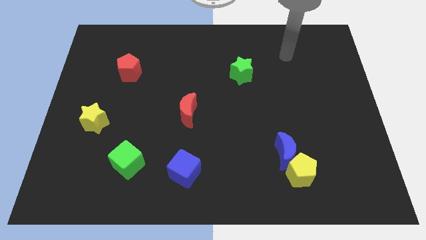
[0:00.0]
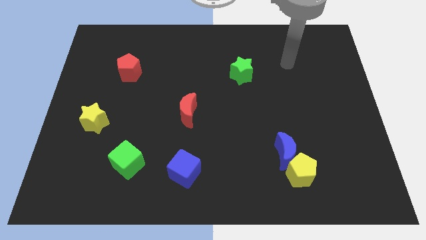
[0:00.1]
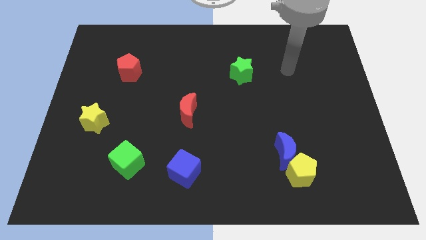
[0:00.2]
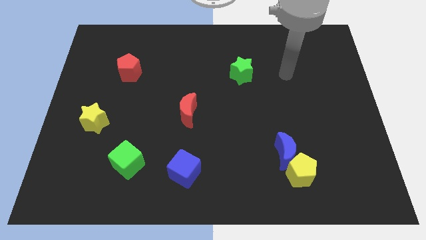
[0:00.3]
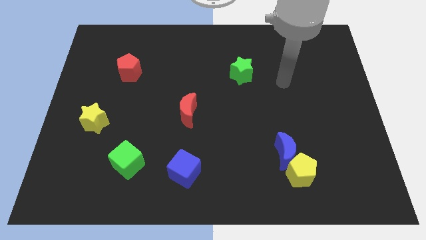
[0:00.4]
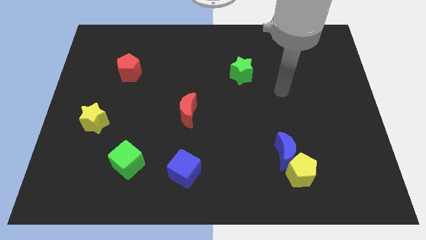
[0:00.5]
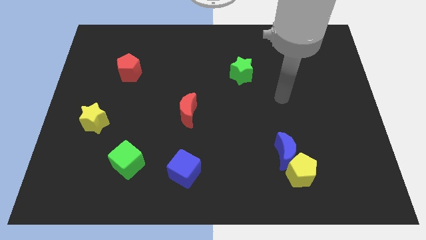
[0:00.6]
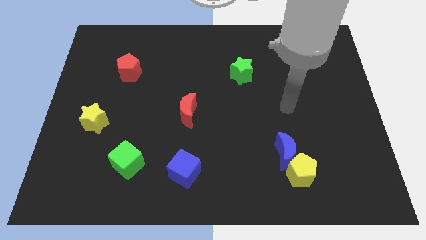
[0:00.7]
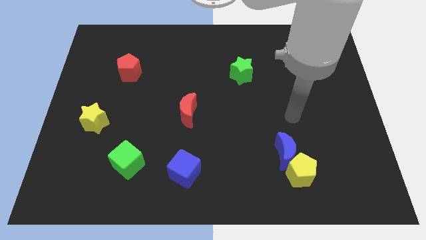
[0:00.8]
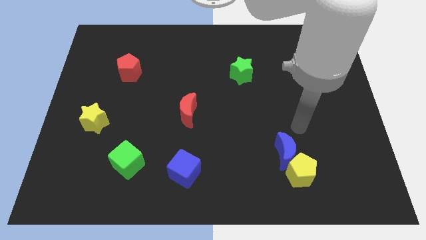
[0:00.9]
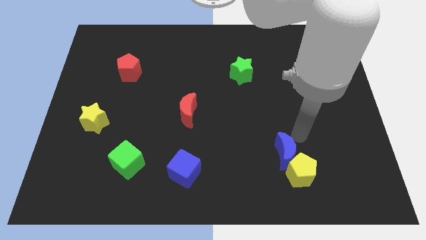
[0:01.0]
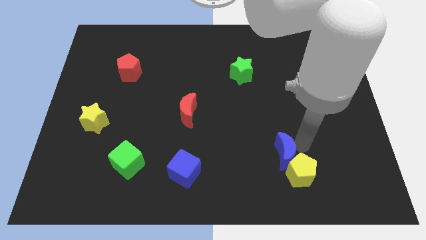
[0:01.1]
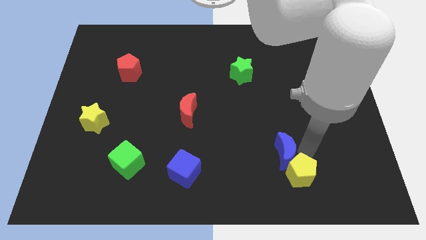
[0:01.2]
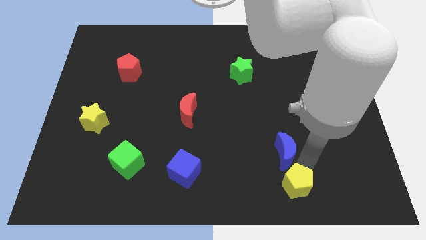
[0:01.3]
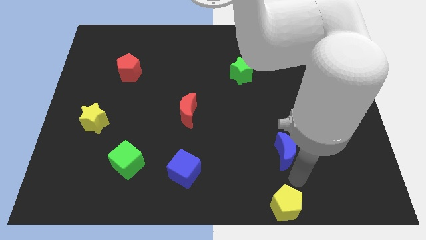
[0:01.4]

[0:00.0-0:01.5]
pull the blue moon apart from the yellow pentagon

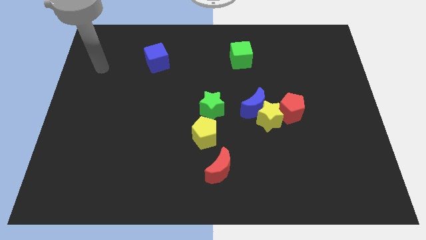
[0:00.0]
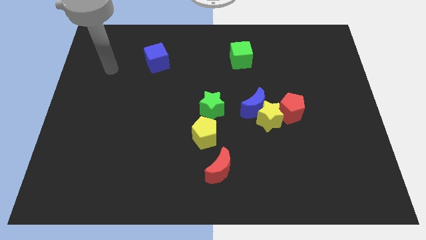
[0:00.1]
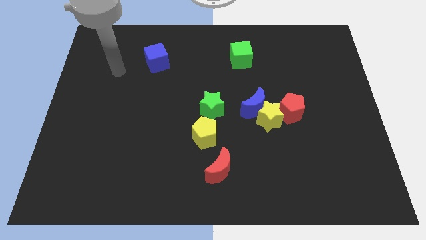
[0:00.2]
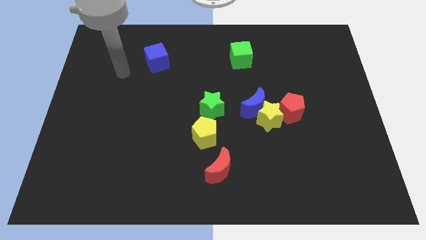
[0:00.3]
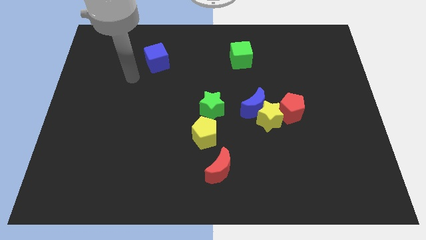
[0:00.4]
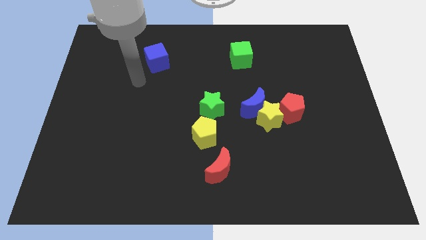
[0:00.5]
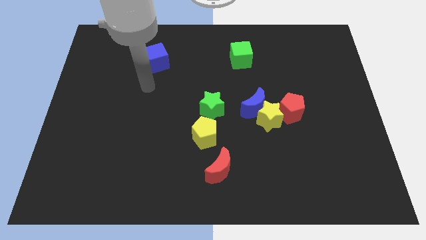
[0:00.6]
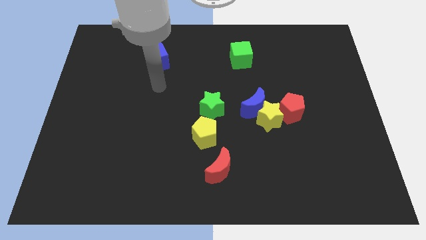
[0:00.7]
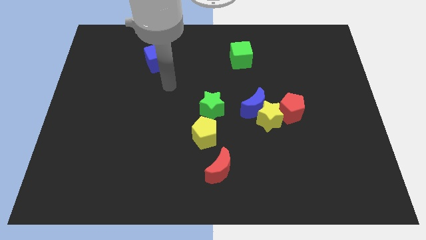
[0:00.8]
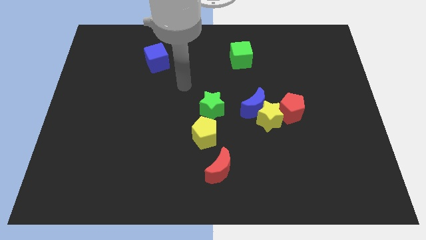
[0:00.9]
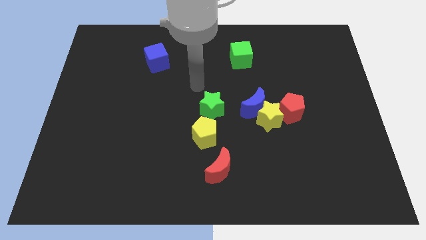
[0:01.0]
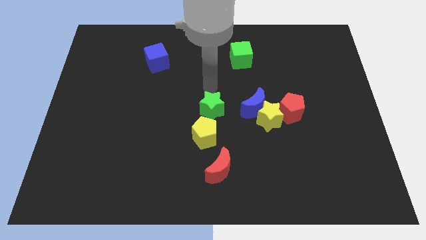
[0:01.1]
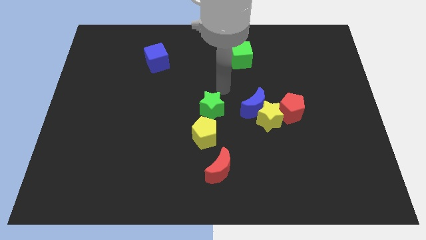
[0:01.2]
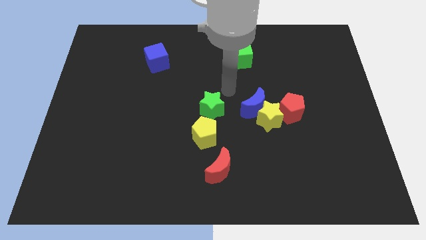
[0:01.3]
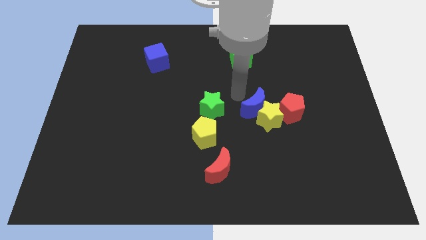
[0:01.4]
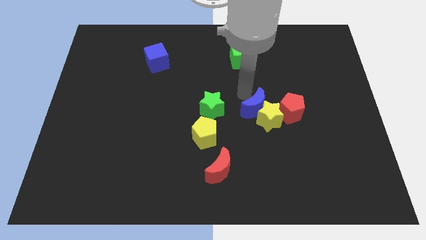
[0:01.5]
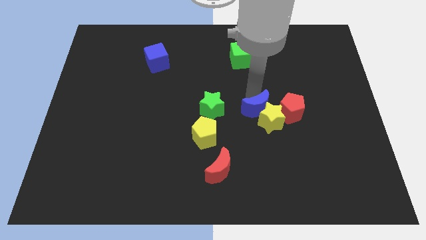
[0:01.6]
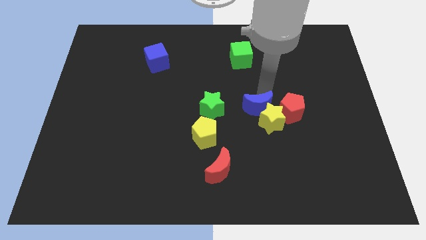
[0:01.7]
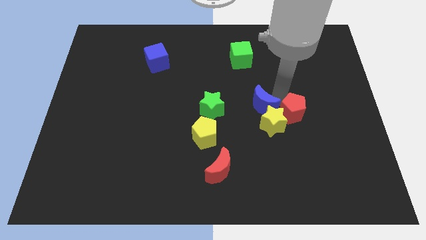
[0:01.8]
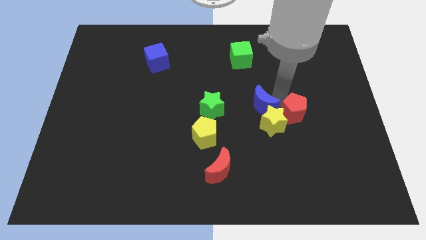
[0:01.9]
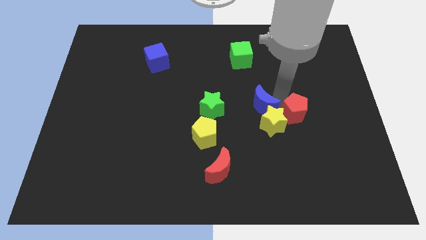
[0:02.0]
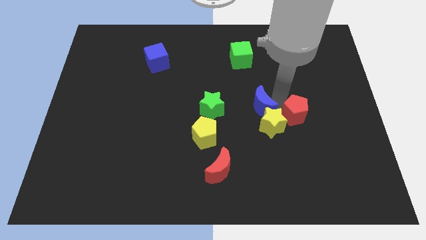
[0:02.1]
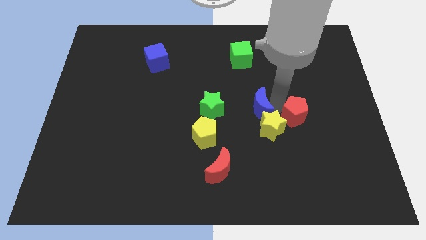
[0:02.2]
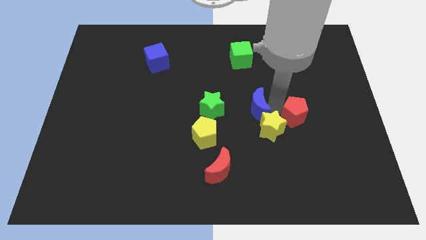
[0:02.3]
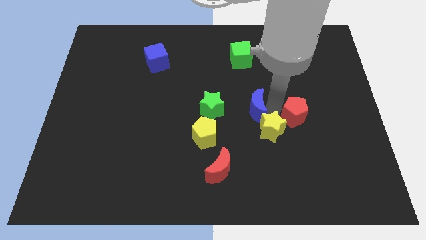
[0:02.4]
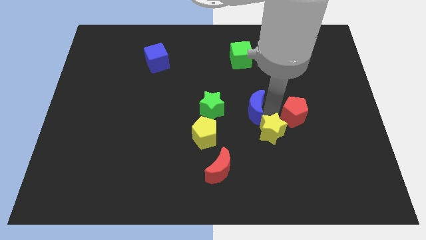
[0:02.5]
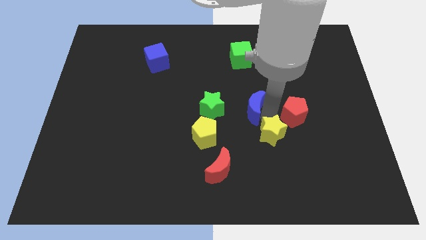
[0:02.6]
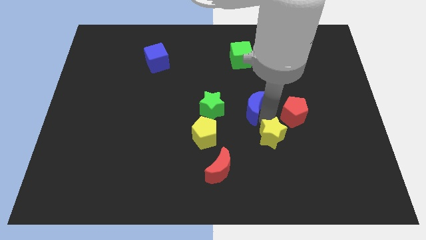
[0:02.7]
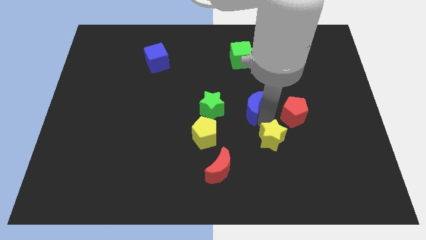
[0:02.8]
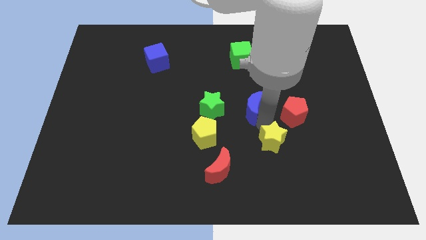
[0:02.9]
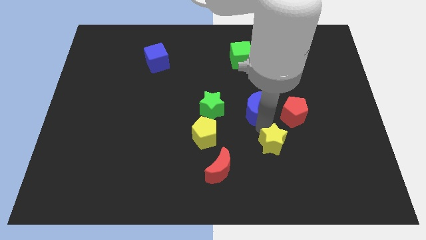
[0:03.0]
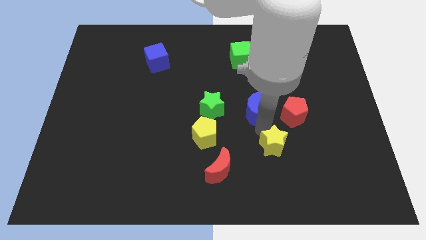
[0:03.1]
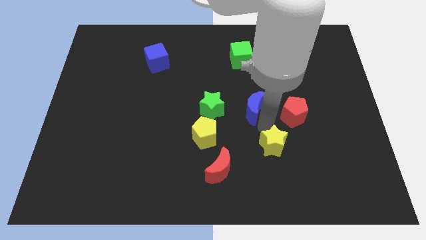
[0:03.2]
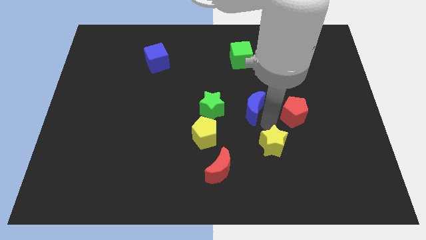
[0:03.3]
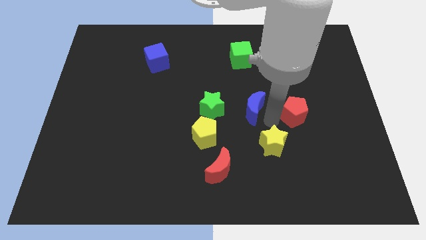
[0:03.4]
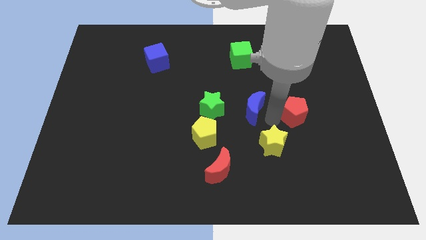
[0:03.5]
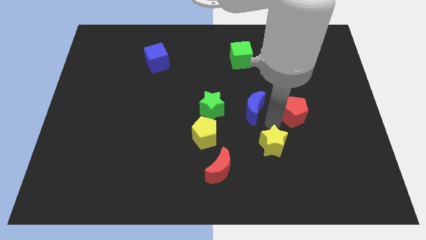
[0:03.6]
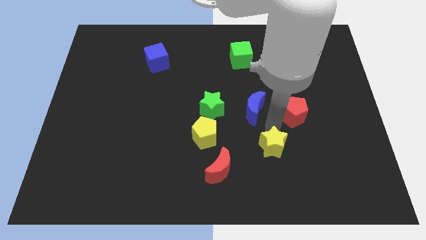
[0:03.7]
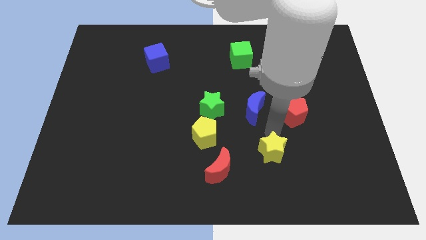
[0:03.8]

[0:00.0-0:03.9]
move the yellow star away from the blue moon and red pentagon

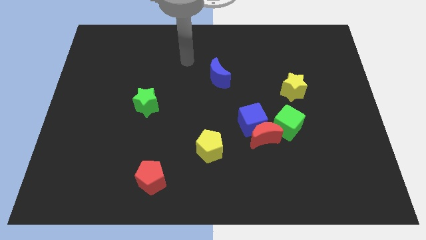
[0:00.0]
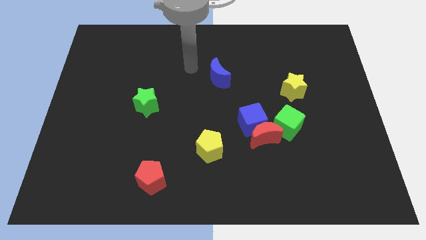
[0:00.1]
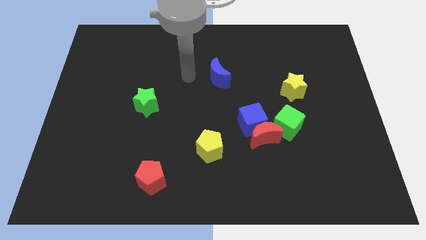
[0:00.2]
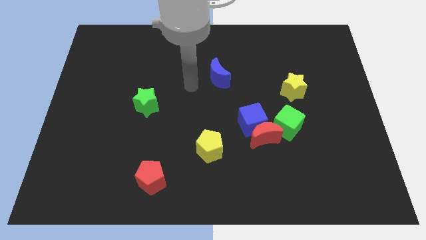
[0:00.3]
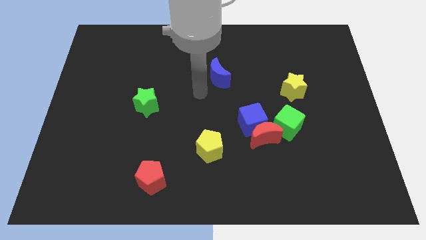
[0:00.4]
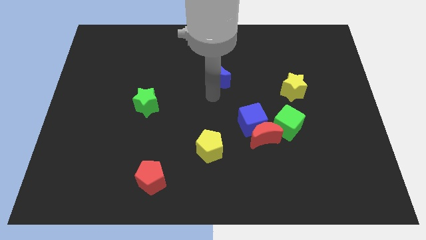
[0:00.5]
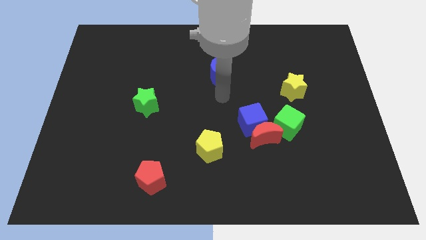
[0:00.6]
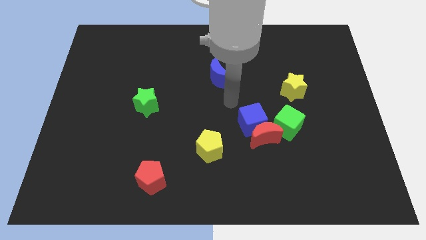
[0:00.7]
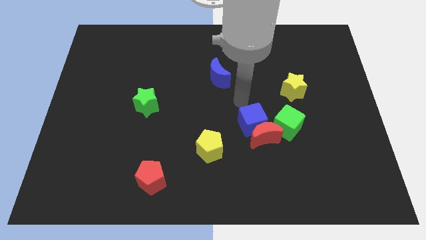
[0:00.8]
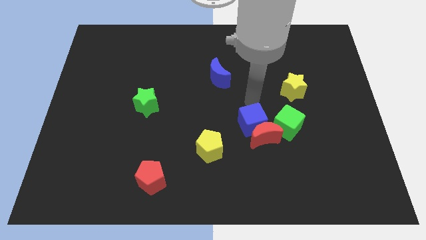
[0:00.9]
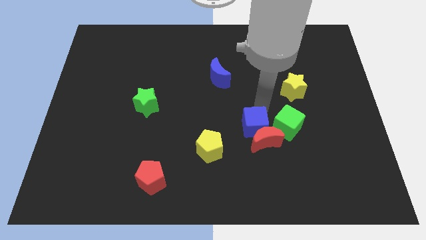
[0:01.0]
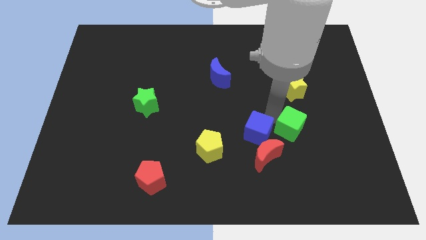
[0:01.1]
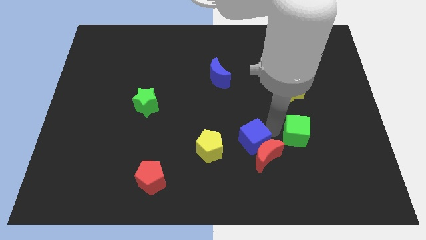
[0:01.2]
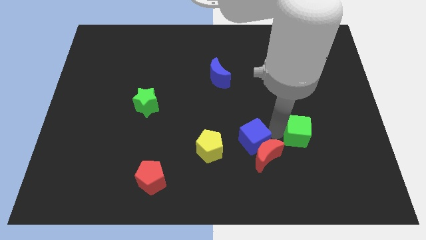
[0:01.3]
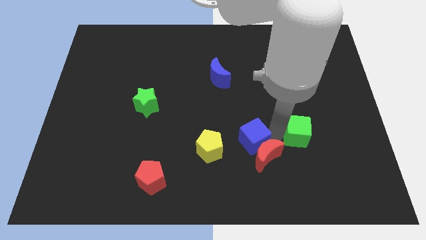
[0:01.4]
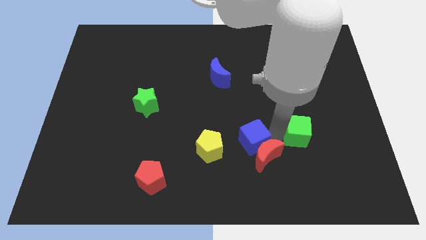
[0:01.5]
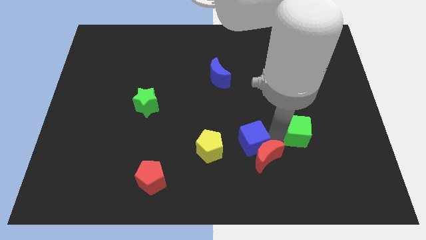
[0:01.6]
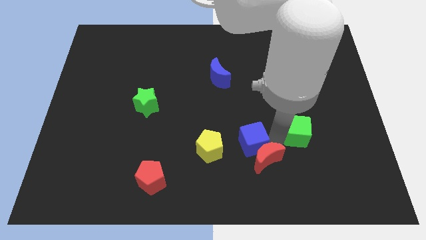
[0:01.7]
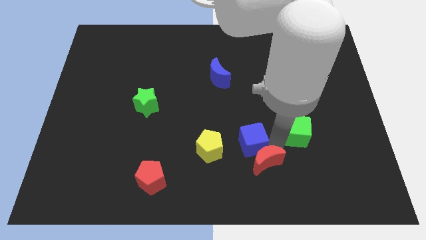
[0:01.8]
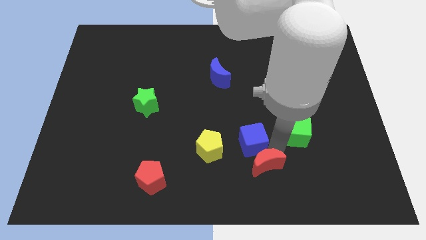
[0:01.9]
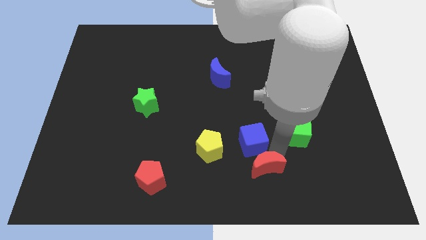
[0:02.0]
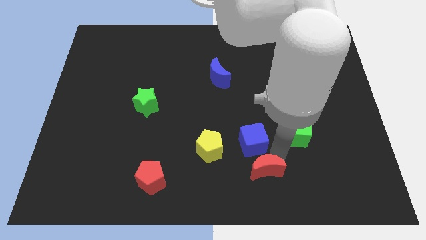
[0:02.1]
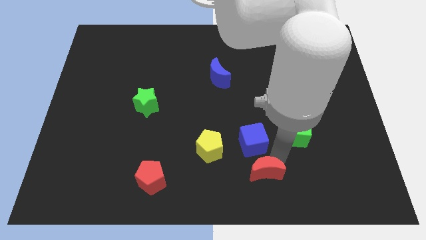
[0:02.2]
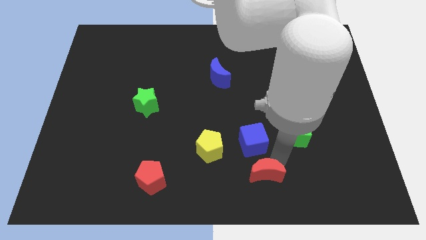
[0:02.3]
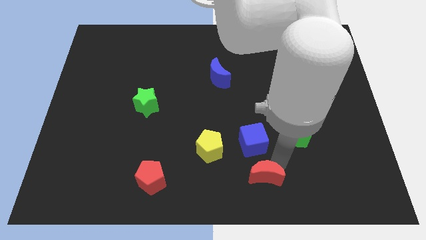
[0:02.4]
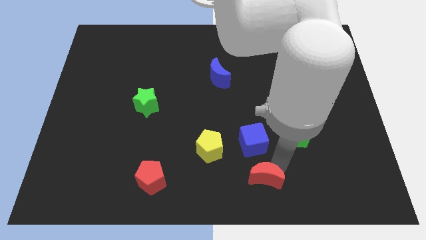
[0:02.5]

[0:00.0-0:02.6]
move the red moon away from the blue cube and green cube

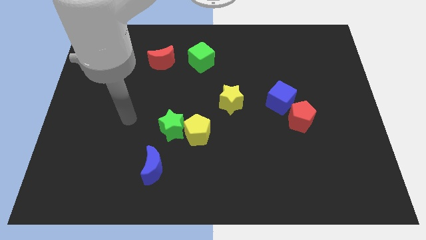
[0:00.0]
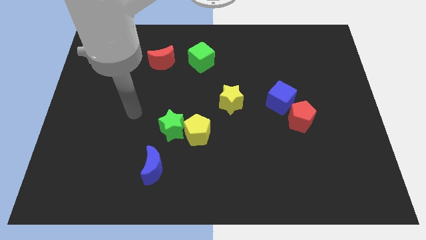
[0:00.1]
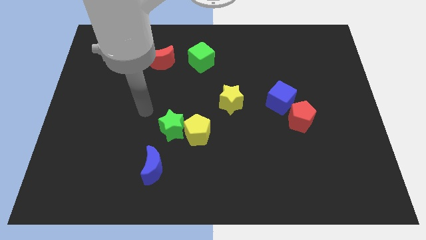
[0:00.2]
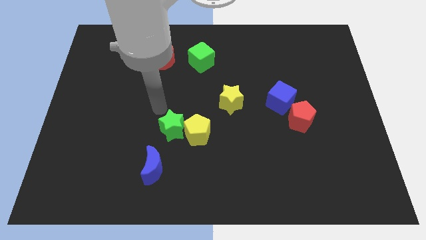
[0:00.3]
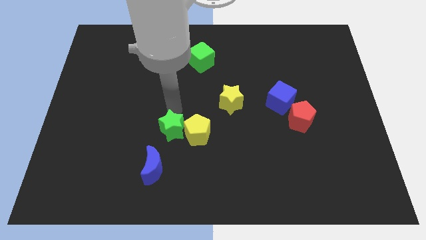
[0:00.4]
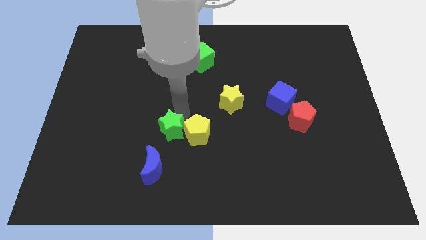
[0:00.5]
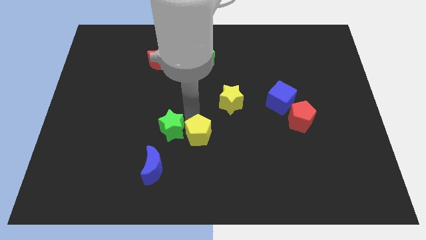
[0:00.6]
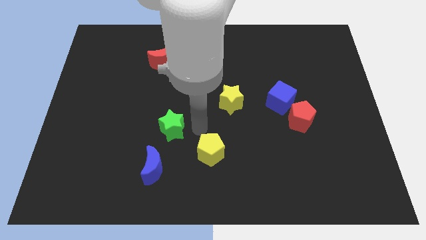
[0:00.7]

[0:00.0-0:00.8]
separate the green star from the yellow pentagon

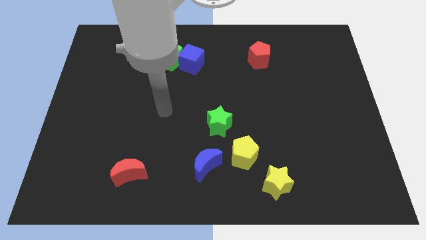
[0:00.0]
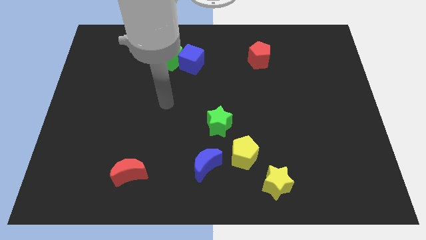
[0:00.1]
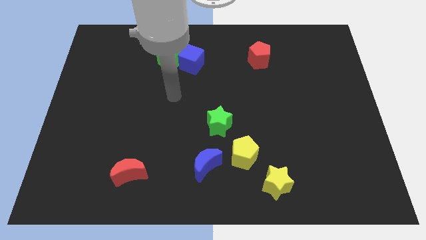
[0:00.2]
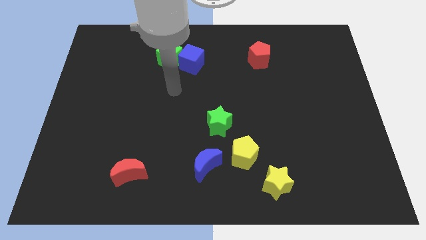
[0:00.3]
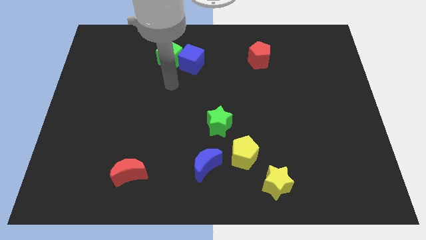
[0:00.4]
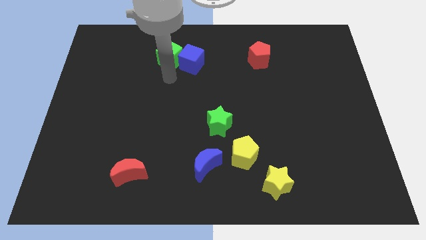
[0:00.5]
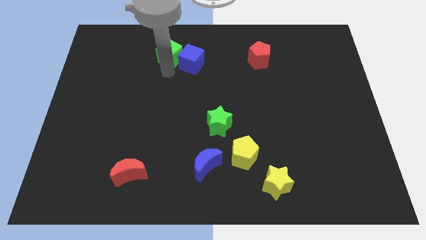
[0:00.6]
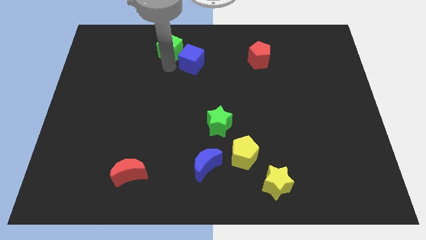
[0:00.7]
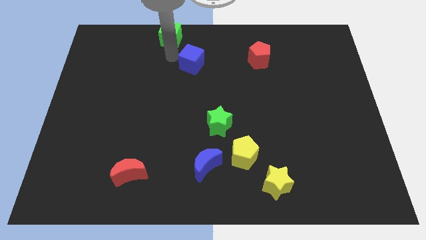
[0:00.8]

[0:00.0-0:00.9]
move the blue cube away from the green cube
